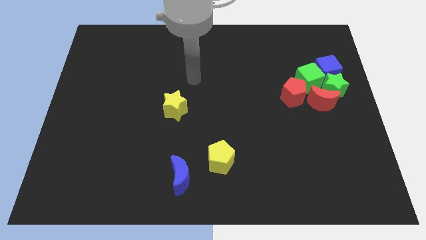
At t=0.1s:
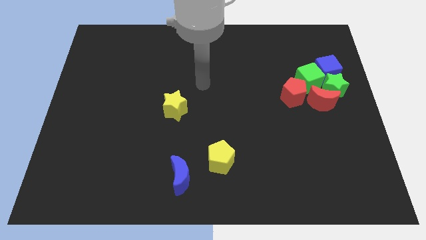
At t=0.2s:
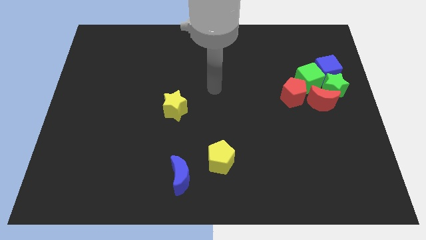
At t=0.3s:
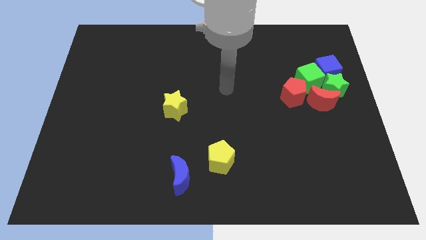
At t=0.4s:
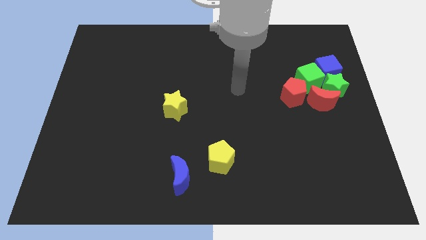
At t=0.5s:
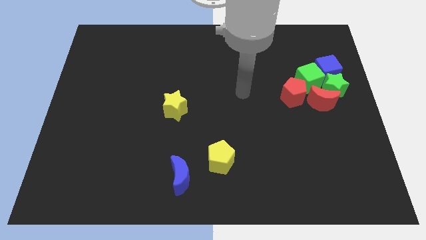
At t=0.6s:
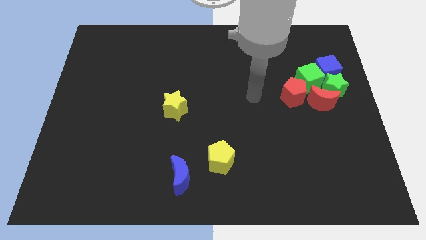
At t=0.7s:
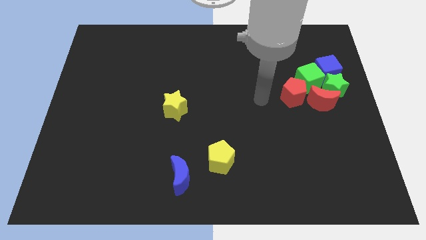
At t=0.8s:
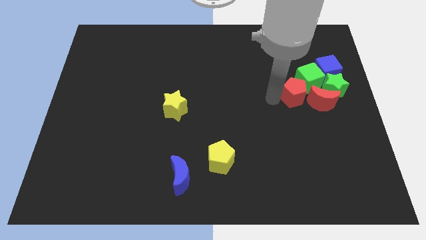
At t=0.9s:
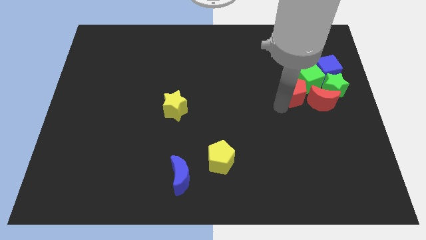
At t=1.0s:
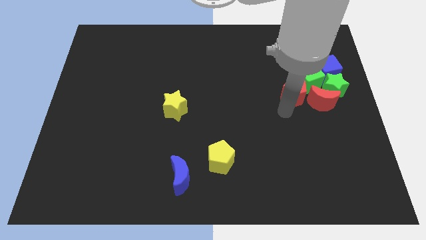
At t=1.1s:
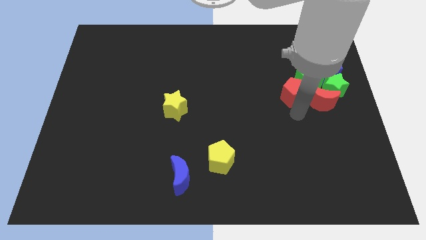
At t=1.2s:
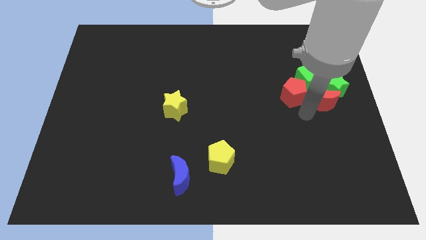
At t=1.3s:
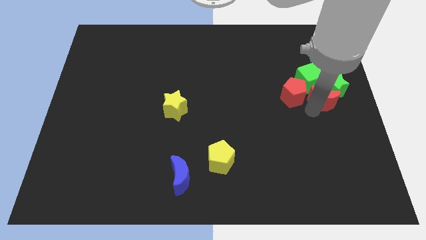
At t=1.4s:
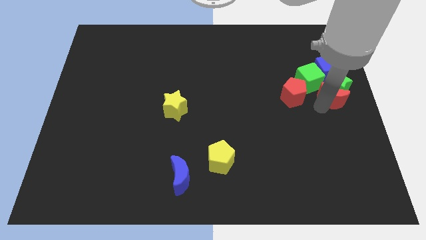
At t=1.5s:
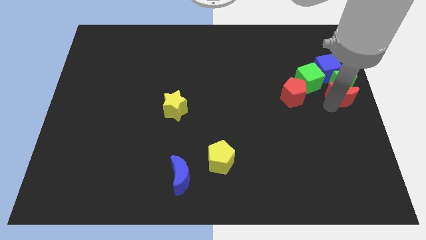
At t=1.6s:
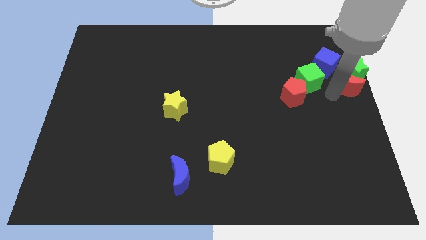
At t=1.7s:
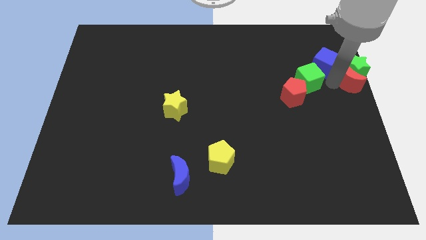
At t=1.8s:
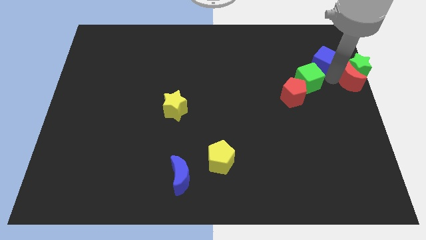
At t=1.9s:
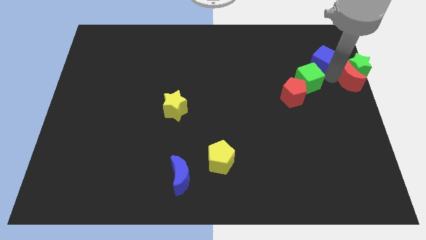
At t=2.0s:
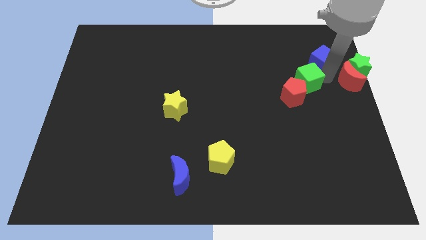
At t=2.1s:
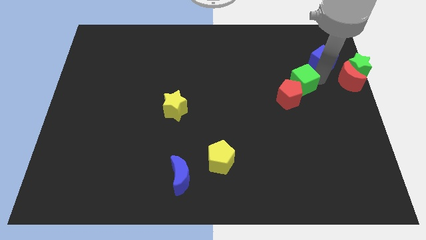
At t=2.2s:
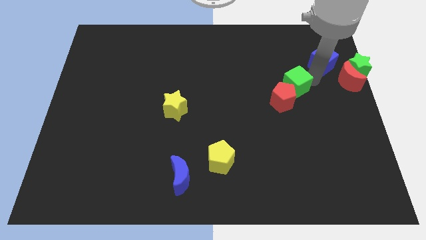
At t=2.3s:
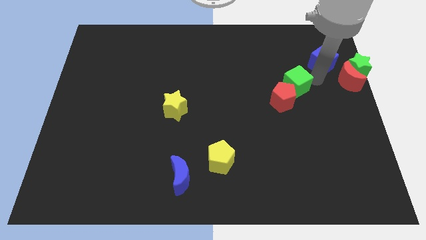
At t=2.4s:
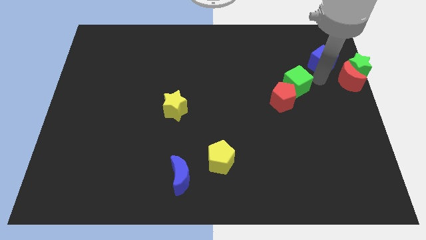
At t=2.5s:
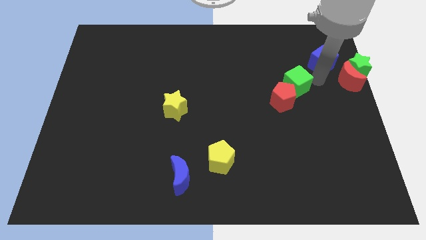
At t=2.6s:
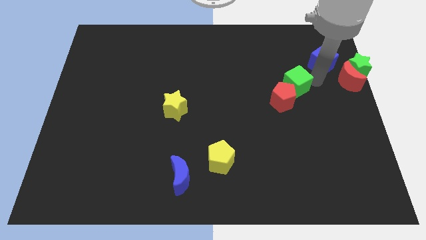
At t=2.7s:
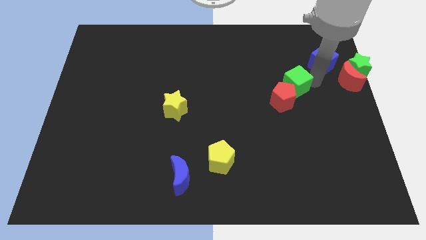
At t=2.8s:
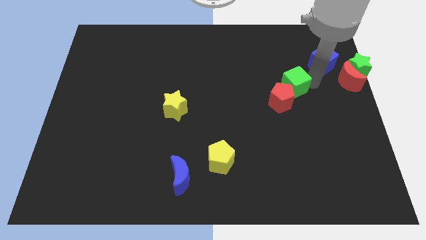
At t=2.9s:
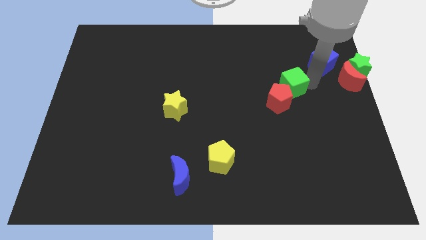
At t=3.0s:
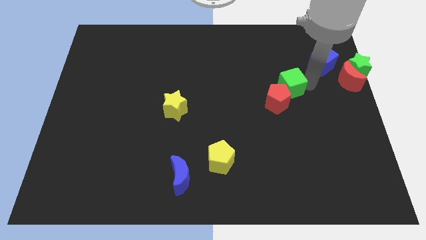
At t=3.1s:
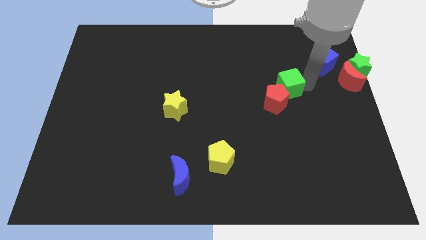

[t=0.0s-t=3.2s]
pull the green cube apart from the group of blocks

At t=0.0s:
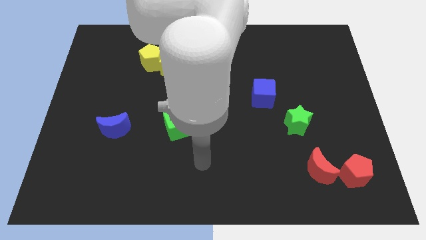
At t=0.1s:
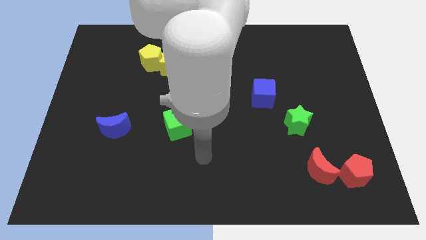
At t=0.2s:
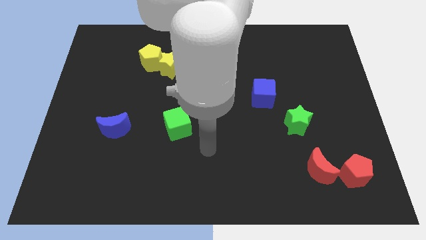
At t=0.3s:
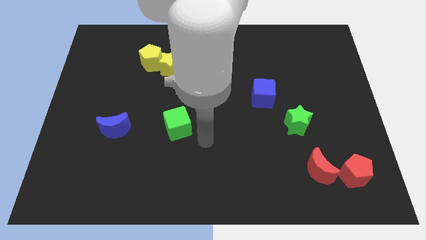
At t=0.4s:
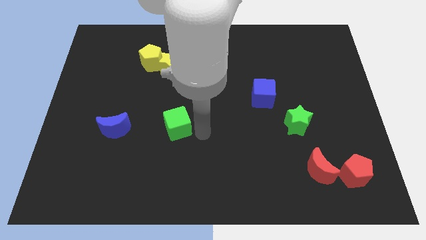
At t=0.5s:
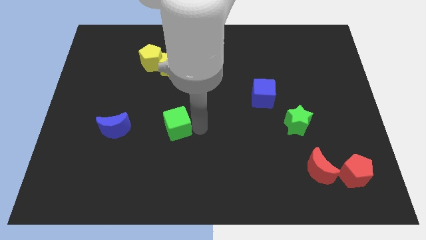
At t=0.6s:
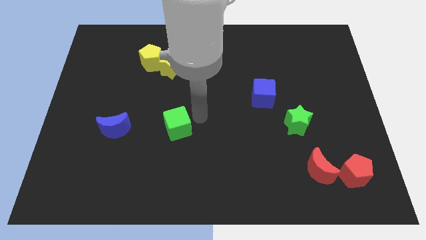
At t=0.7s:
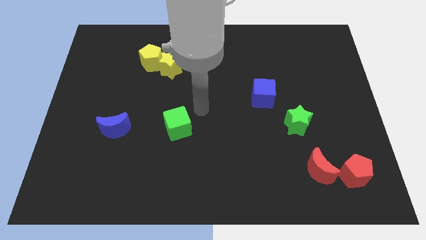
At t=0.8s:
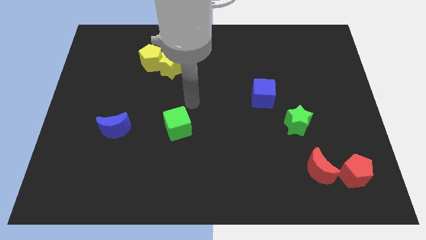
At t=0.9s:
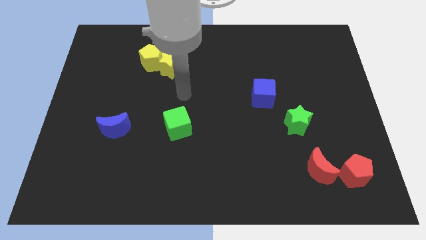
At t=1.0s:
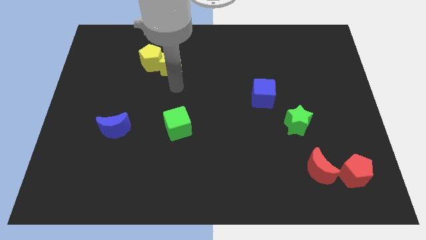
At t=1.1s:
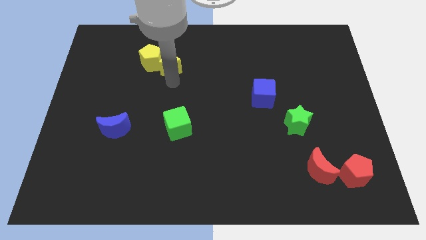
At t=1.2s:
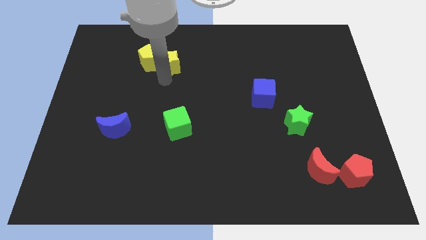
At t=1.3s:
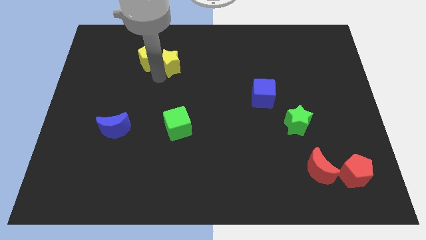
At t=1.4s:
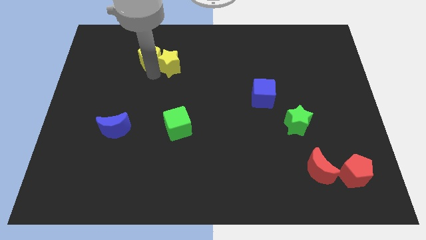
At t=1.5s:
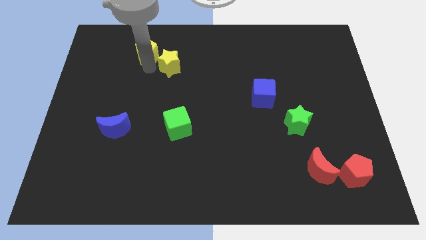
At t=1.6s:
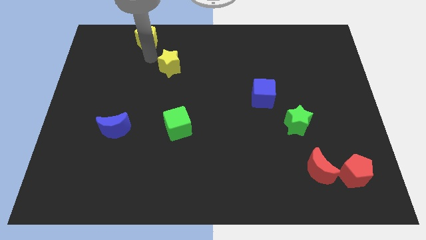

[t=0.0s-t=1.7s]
move the yellow star away from the yellow pentagon

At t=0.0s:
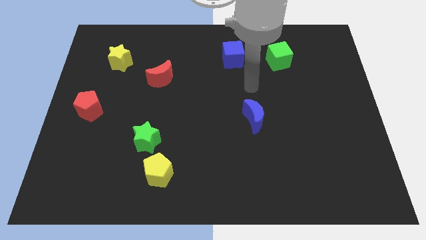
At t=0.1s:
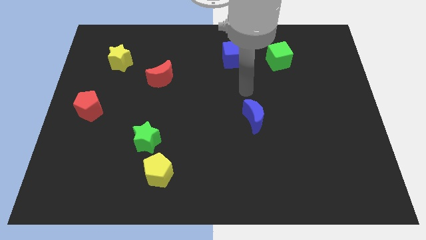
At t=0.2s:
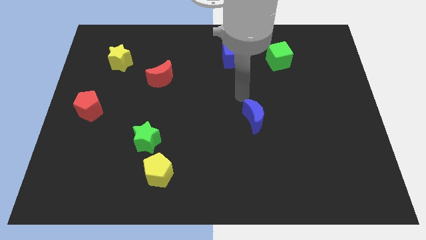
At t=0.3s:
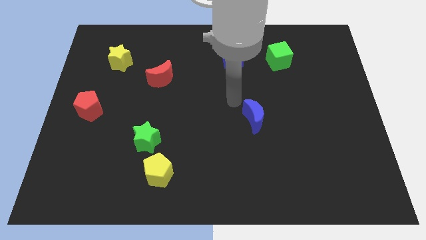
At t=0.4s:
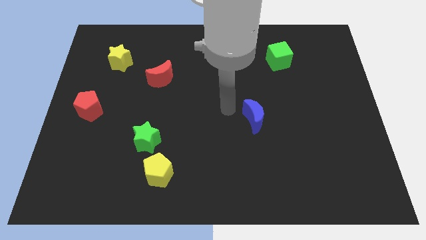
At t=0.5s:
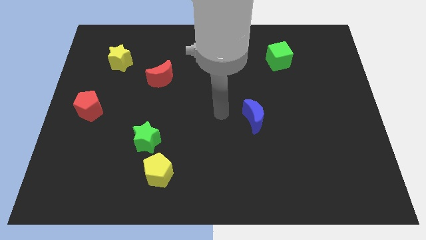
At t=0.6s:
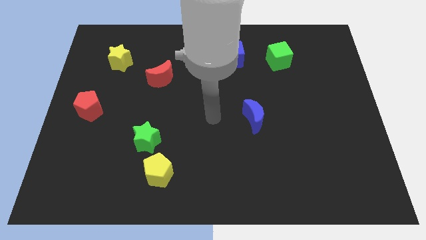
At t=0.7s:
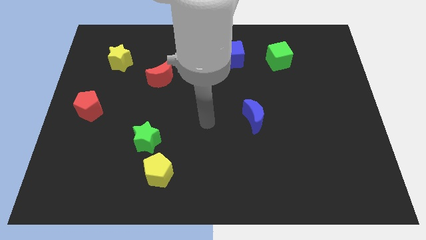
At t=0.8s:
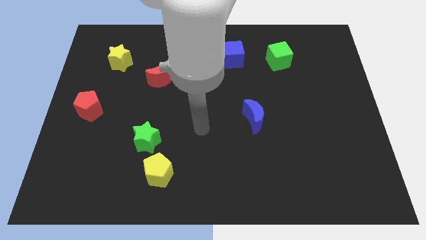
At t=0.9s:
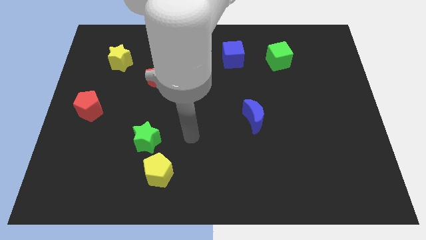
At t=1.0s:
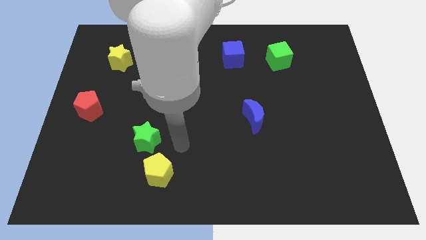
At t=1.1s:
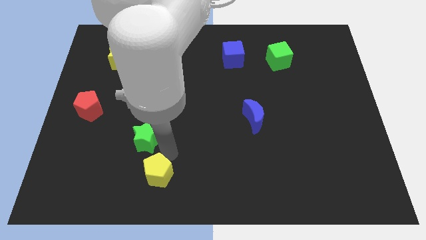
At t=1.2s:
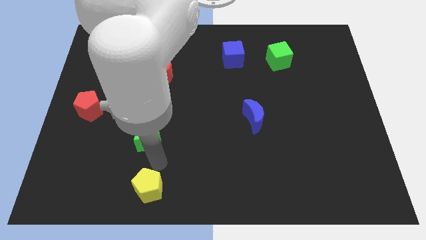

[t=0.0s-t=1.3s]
pull the green star apart from the yellow pentagon

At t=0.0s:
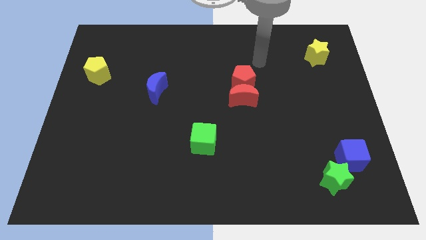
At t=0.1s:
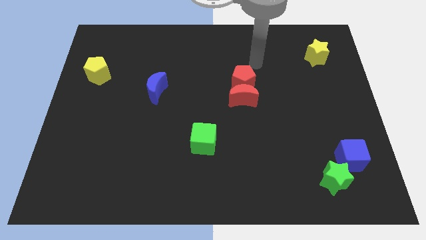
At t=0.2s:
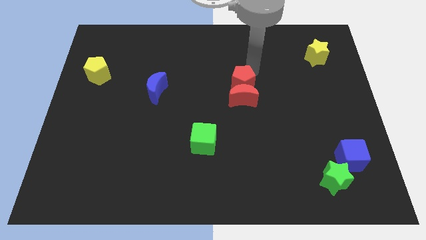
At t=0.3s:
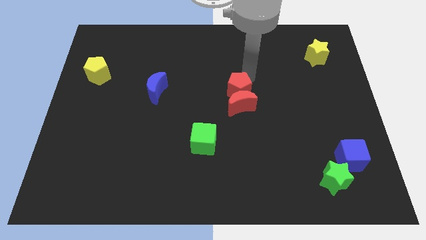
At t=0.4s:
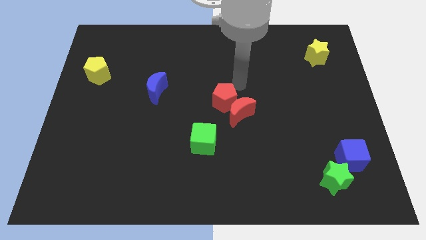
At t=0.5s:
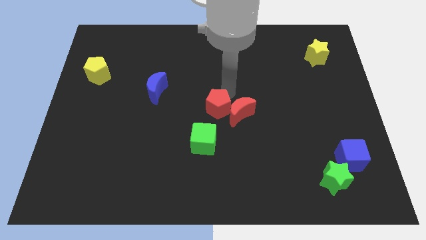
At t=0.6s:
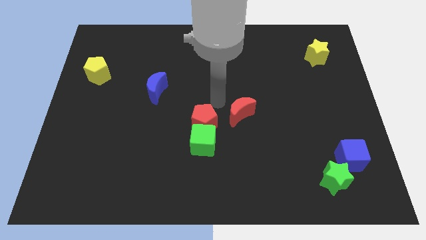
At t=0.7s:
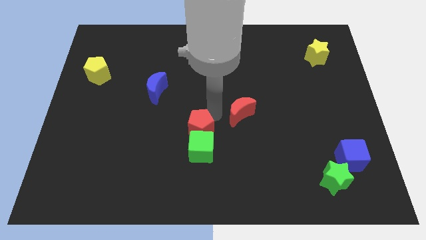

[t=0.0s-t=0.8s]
separate the red moon from the red pentagon

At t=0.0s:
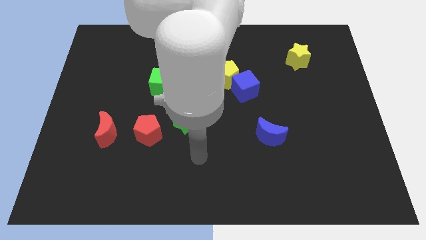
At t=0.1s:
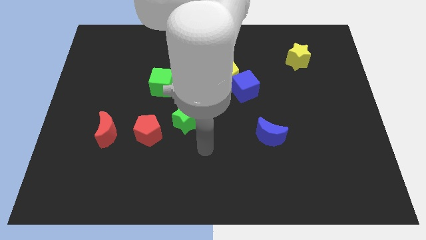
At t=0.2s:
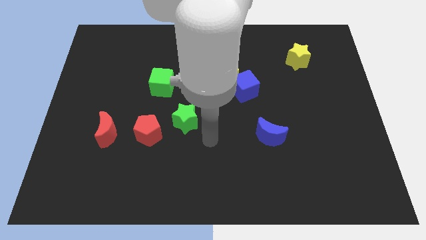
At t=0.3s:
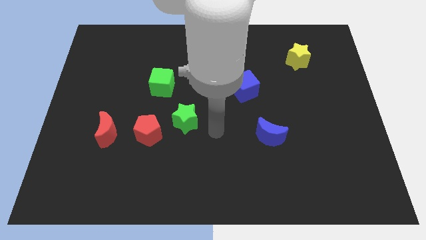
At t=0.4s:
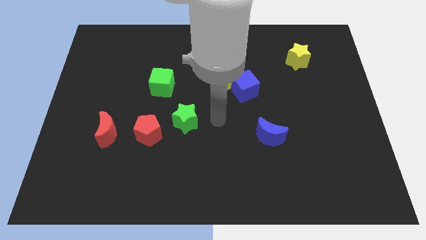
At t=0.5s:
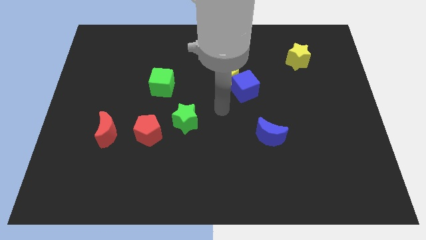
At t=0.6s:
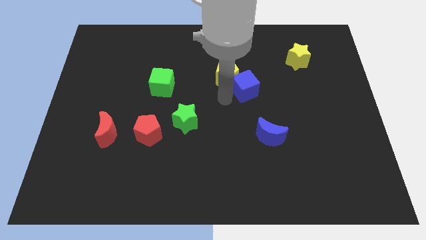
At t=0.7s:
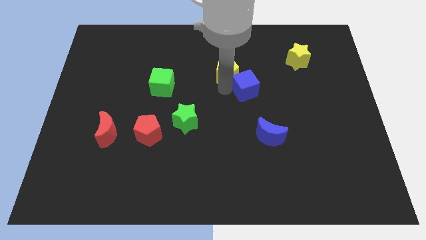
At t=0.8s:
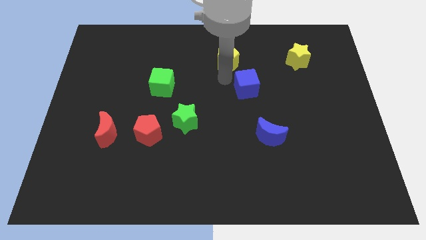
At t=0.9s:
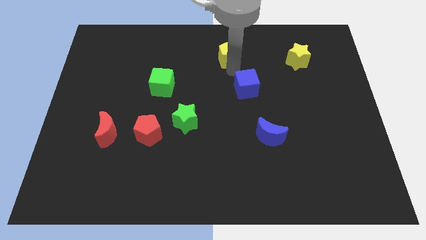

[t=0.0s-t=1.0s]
pull the blue cube apart from the yellow pentagon

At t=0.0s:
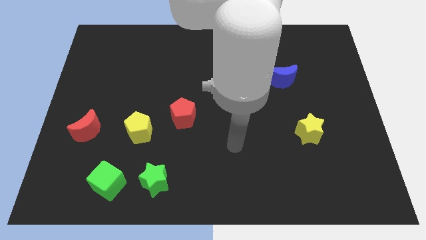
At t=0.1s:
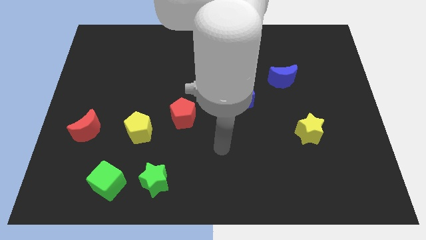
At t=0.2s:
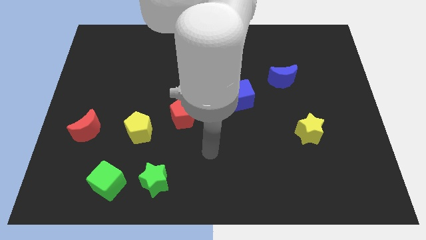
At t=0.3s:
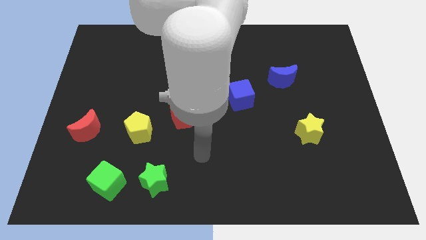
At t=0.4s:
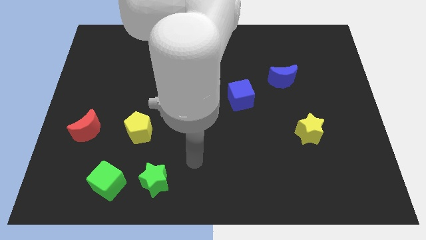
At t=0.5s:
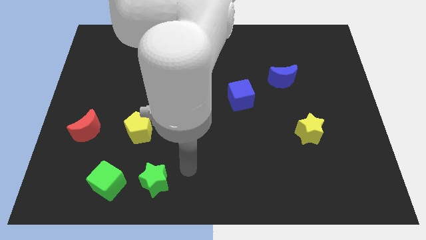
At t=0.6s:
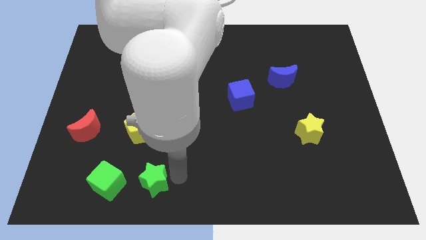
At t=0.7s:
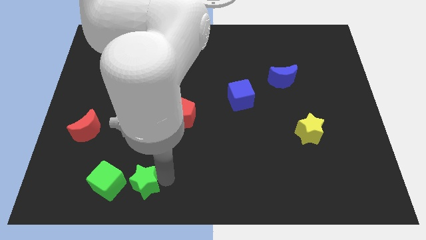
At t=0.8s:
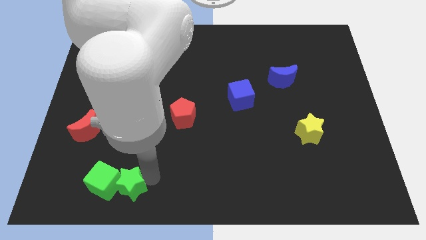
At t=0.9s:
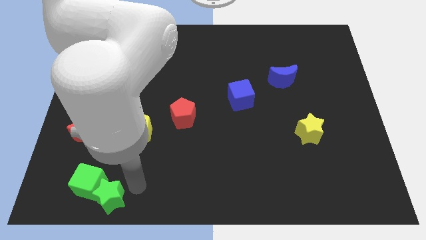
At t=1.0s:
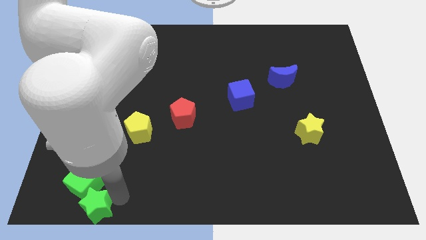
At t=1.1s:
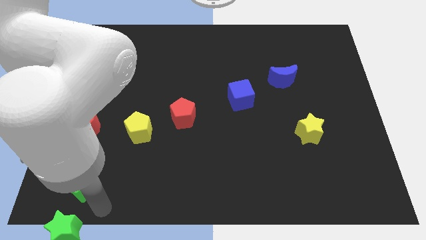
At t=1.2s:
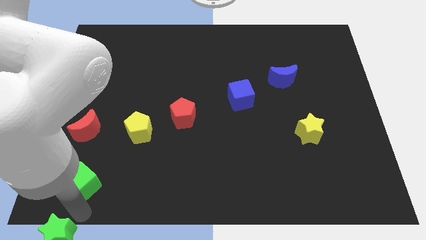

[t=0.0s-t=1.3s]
separate the green cube from the green star

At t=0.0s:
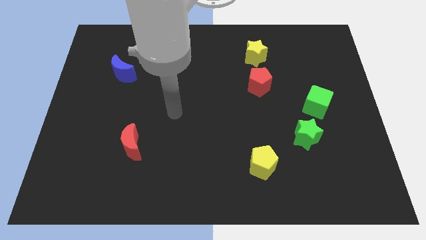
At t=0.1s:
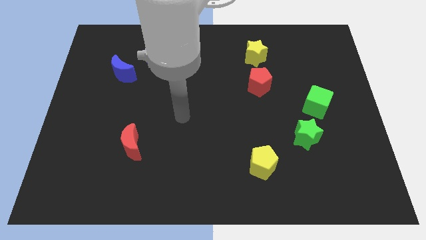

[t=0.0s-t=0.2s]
move the green cube away from the green star
